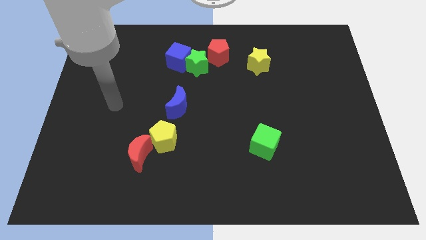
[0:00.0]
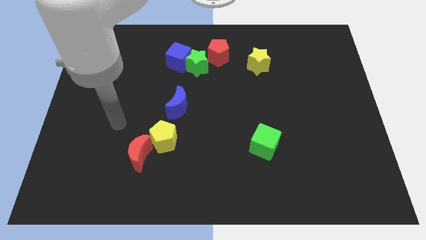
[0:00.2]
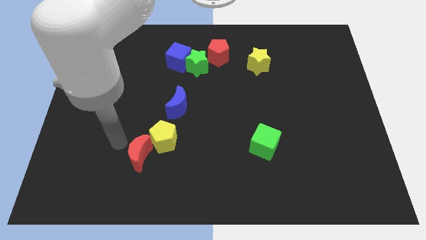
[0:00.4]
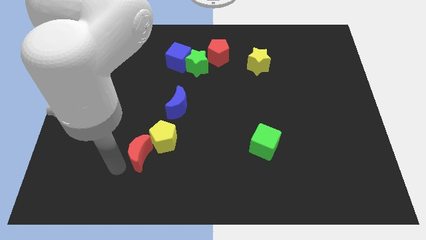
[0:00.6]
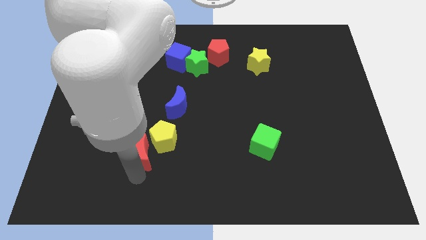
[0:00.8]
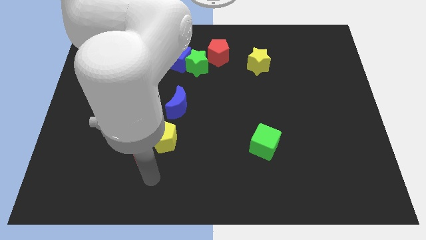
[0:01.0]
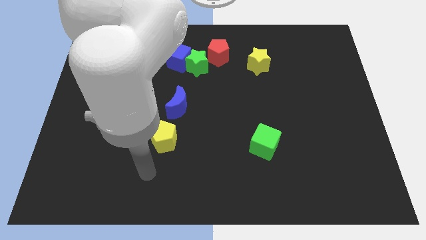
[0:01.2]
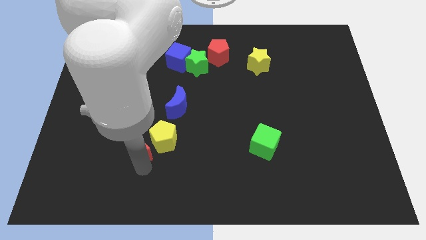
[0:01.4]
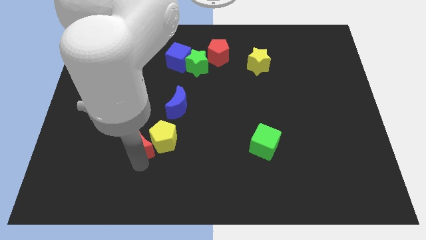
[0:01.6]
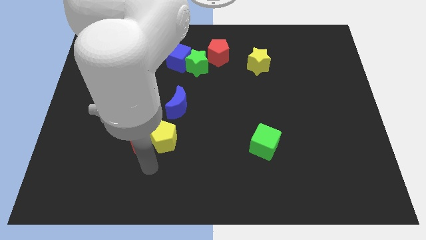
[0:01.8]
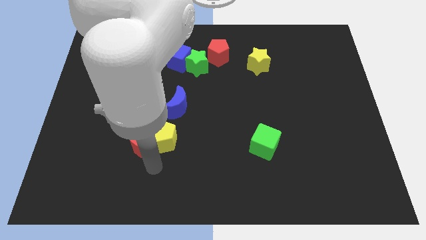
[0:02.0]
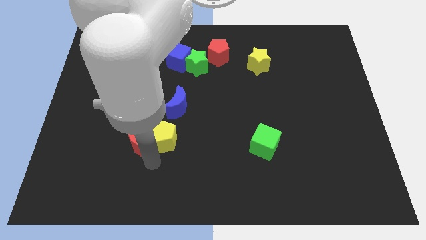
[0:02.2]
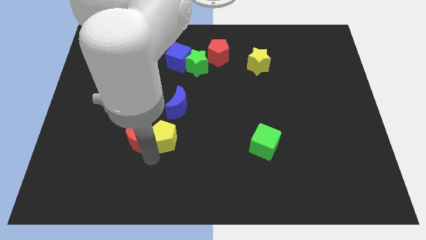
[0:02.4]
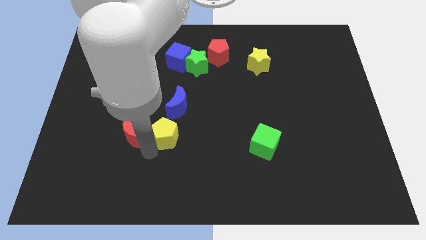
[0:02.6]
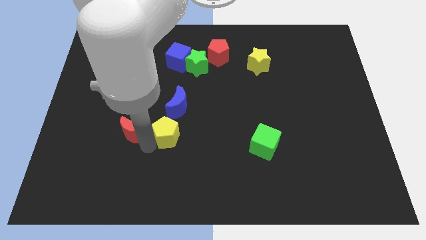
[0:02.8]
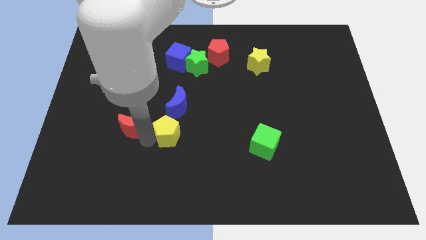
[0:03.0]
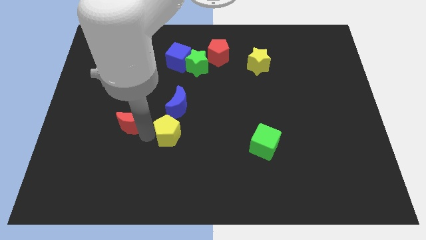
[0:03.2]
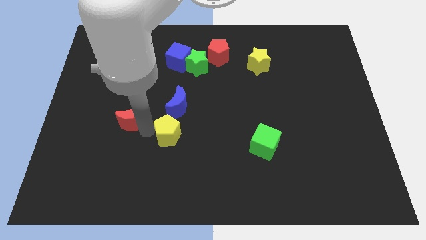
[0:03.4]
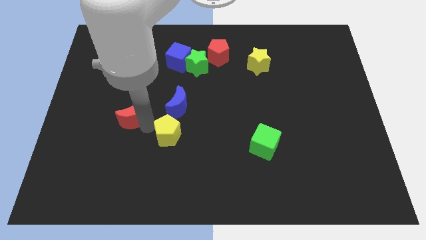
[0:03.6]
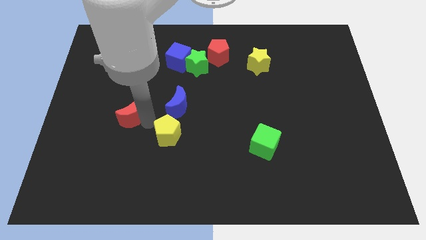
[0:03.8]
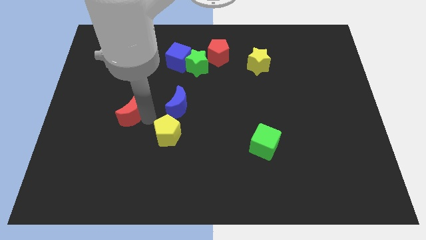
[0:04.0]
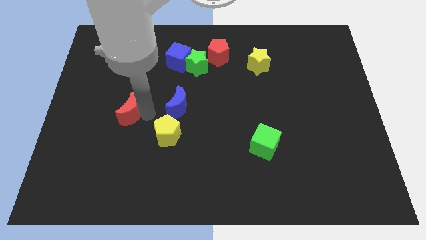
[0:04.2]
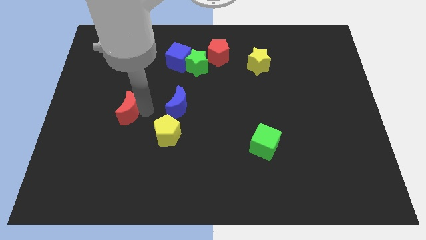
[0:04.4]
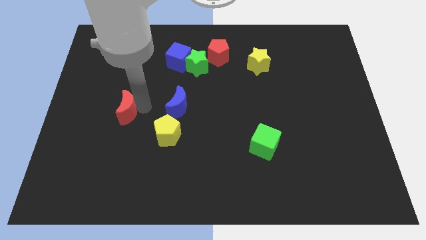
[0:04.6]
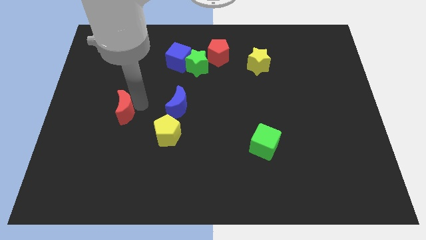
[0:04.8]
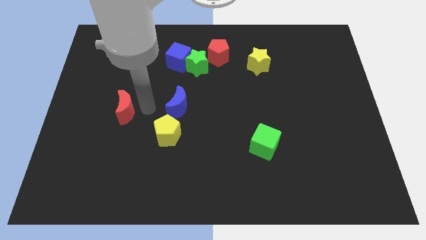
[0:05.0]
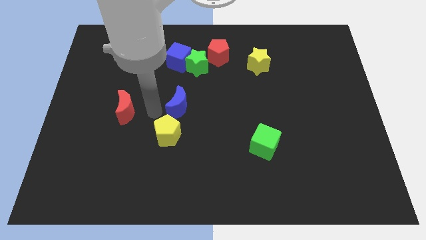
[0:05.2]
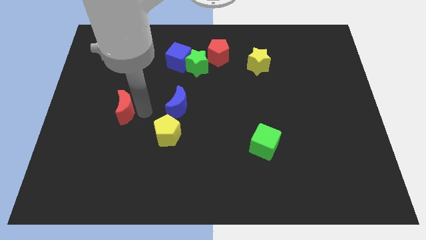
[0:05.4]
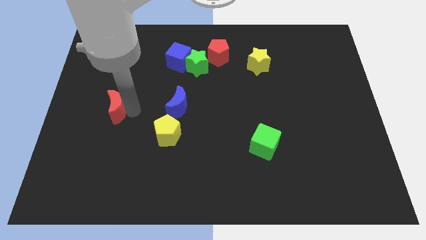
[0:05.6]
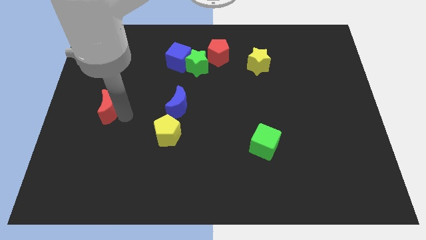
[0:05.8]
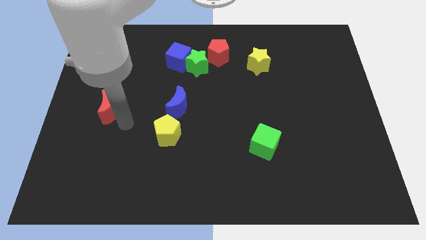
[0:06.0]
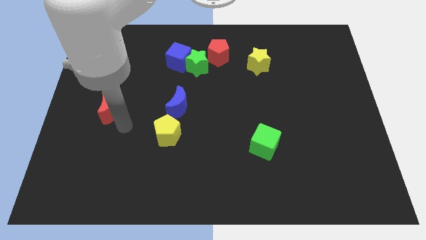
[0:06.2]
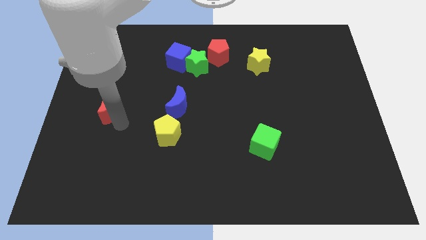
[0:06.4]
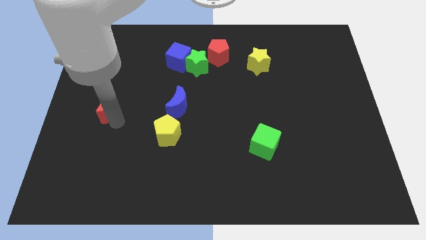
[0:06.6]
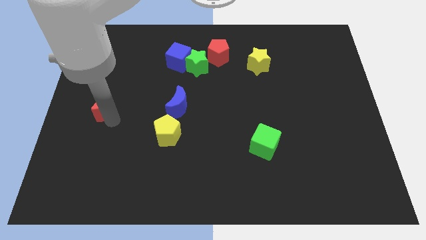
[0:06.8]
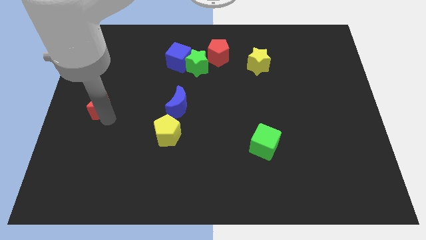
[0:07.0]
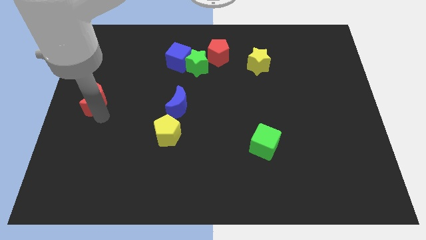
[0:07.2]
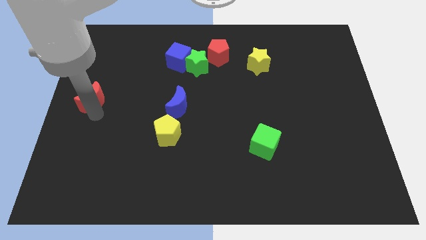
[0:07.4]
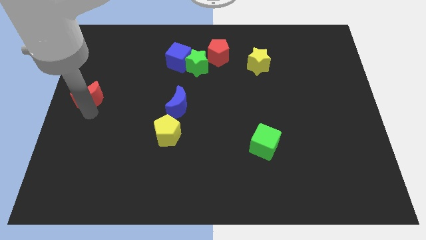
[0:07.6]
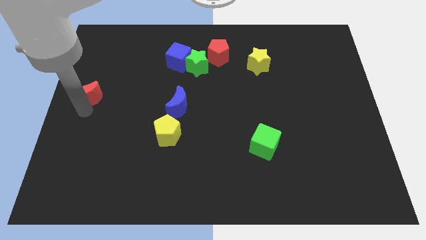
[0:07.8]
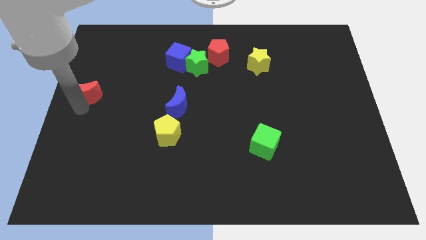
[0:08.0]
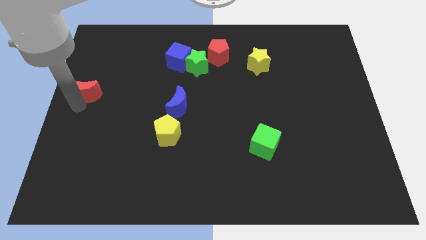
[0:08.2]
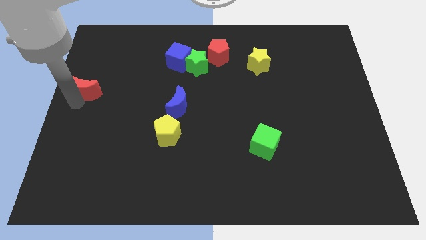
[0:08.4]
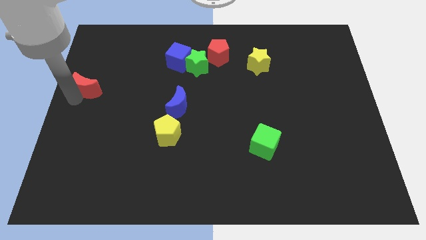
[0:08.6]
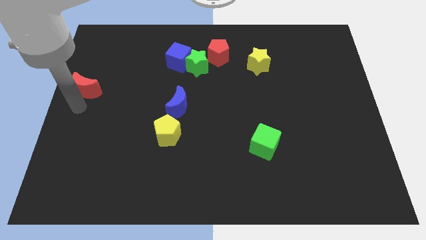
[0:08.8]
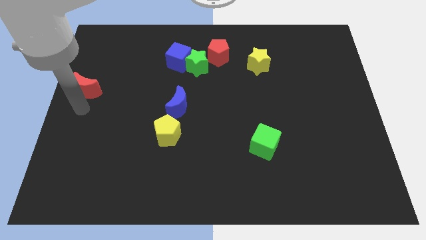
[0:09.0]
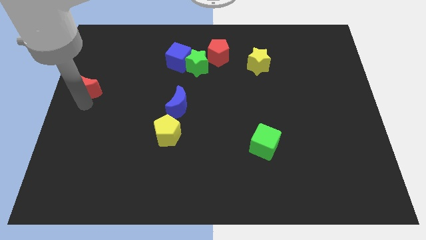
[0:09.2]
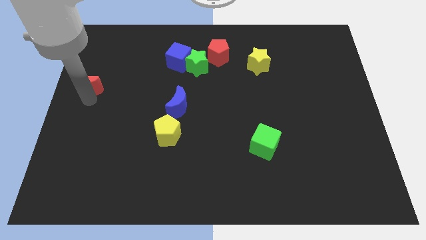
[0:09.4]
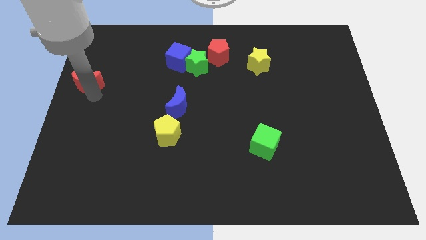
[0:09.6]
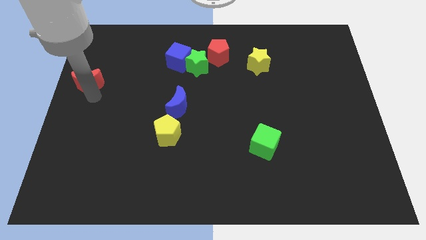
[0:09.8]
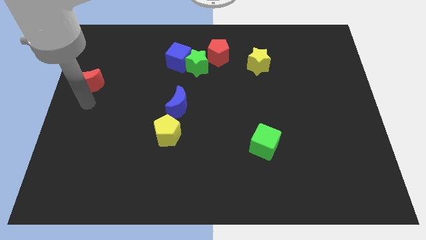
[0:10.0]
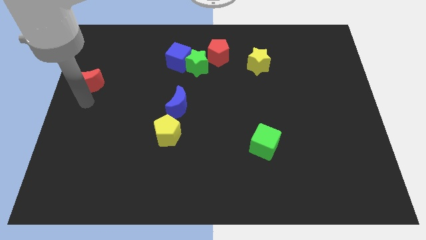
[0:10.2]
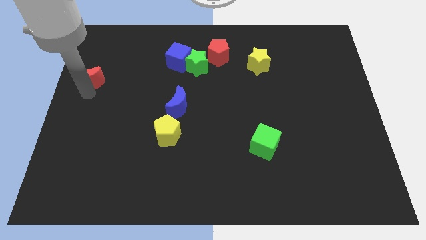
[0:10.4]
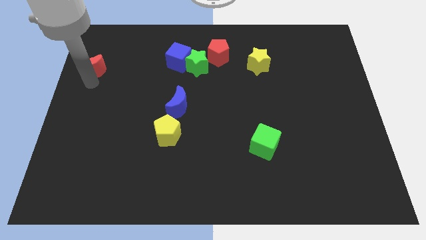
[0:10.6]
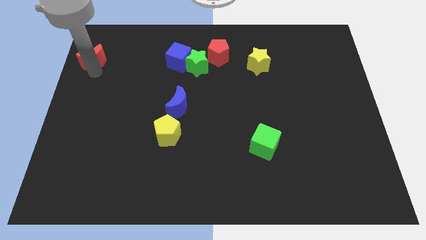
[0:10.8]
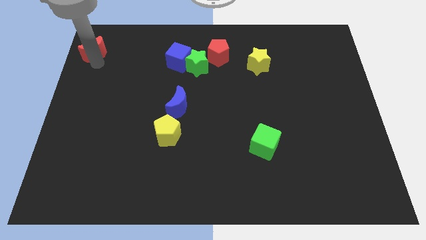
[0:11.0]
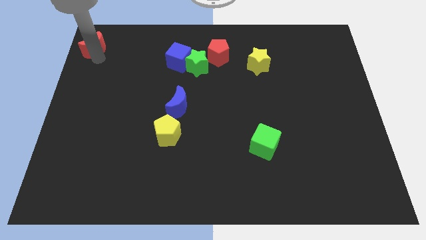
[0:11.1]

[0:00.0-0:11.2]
put the red moon to the top left
